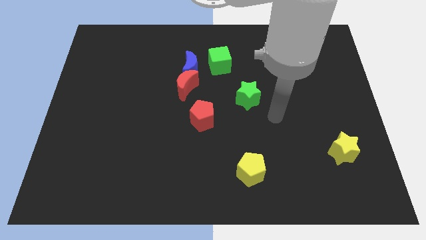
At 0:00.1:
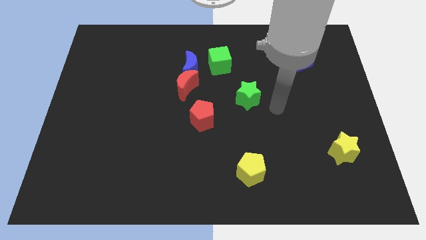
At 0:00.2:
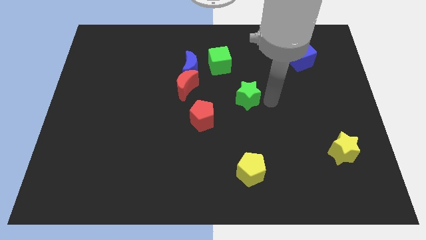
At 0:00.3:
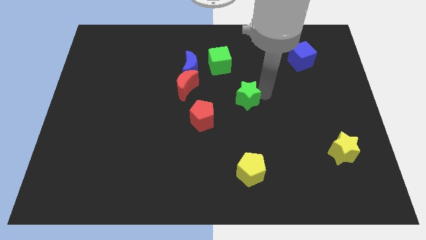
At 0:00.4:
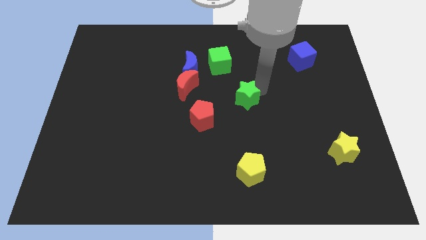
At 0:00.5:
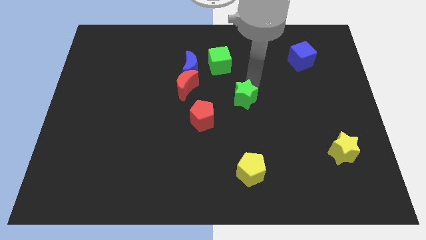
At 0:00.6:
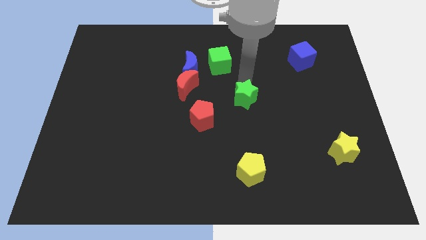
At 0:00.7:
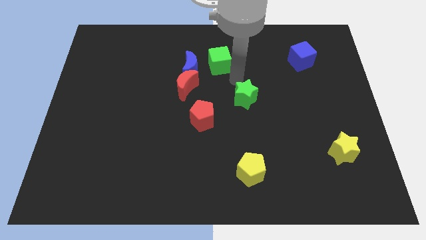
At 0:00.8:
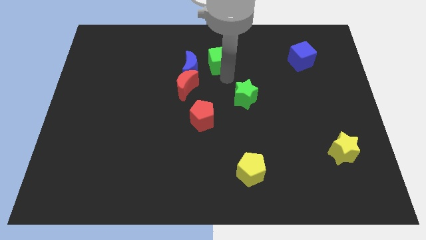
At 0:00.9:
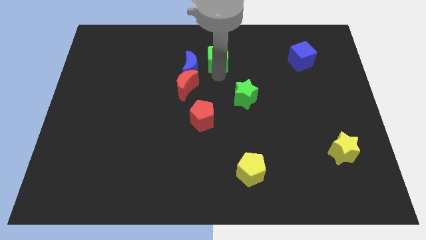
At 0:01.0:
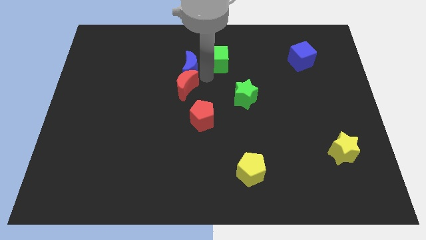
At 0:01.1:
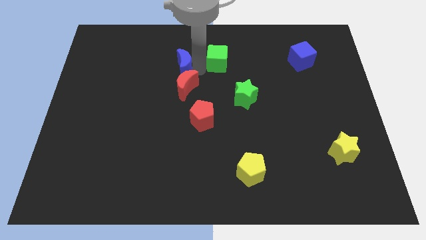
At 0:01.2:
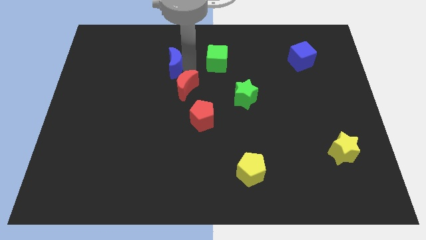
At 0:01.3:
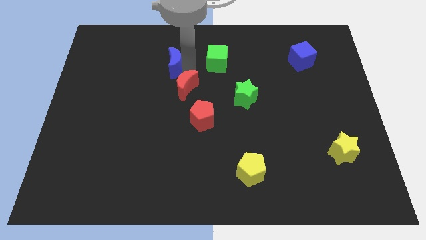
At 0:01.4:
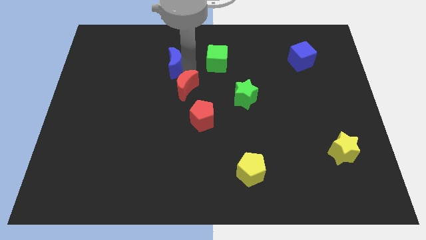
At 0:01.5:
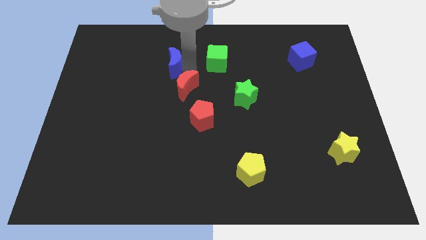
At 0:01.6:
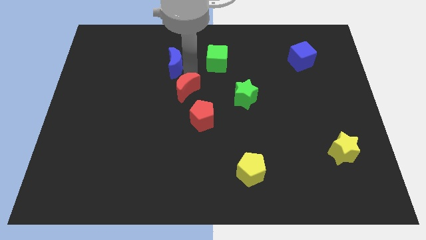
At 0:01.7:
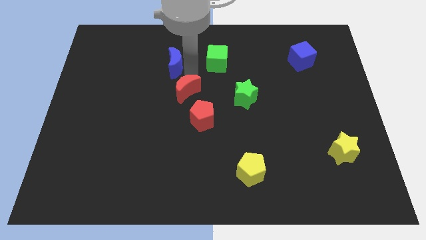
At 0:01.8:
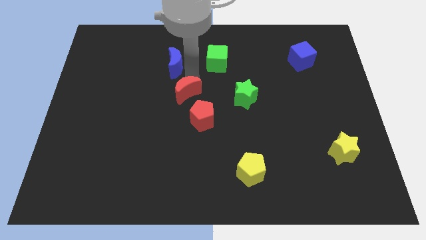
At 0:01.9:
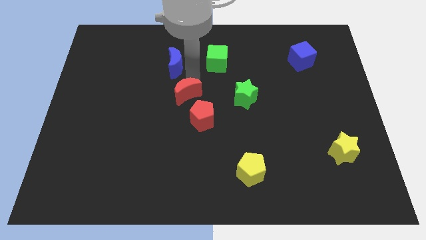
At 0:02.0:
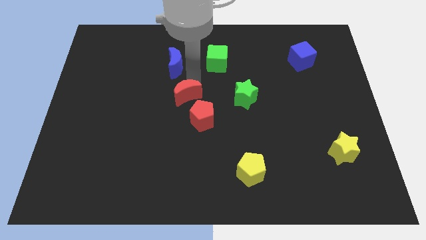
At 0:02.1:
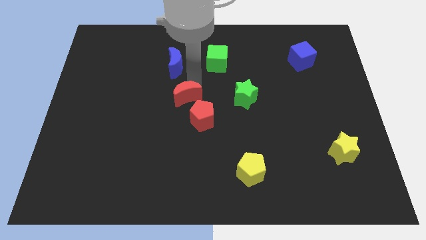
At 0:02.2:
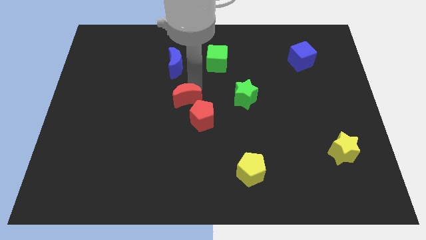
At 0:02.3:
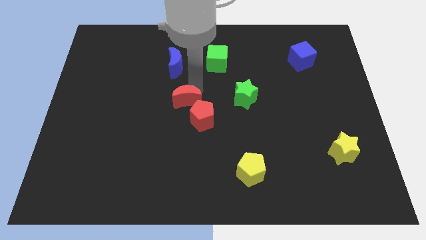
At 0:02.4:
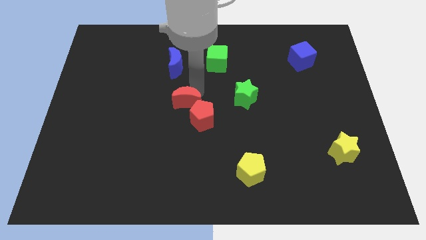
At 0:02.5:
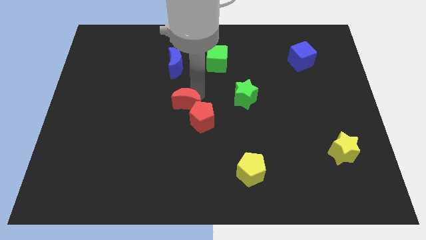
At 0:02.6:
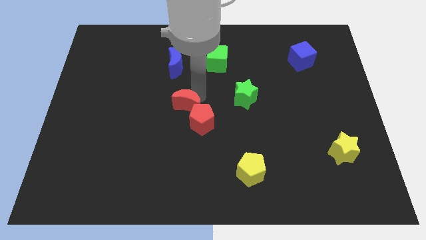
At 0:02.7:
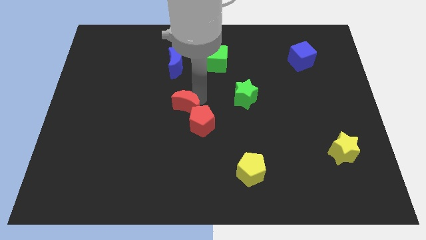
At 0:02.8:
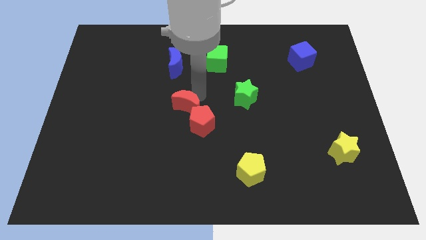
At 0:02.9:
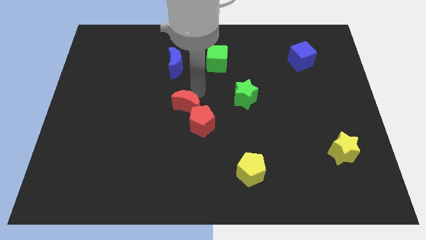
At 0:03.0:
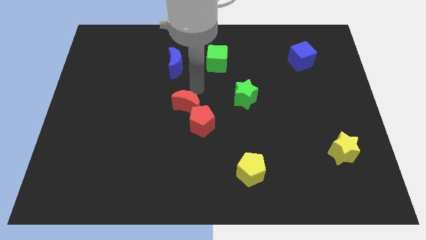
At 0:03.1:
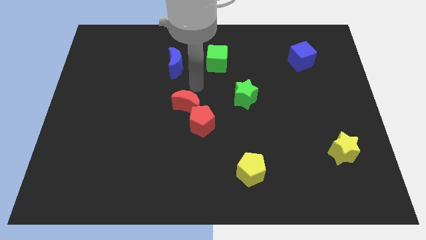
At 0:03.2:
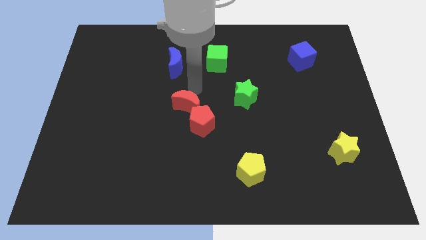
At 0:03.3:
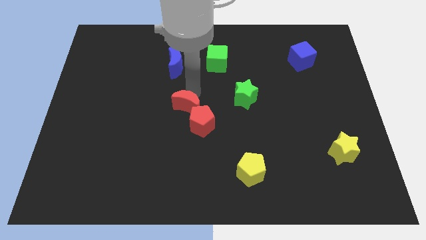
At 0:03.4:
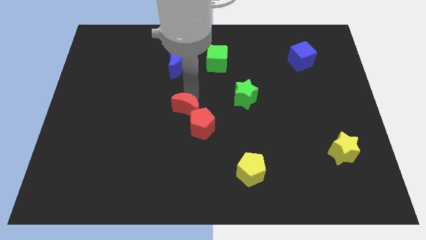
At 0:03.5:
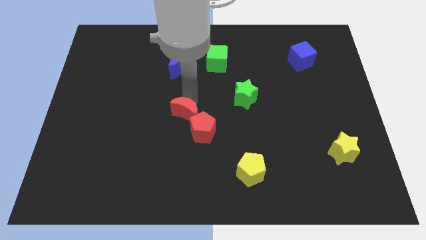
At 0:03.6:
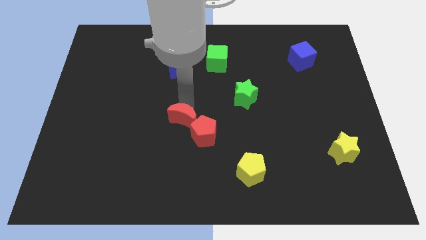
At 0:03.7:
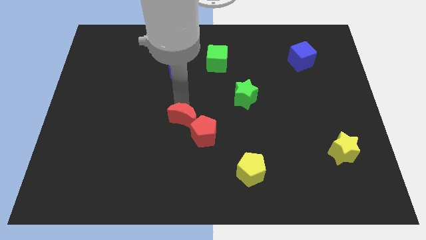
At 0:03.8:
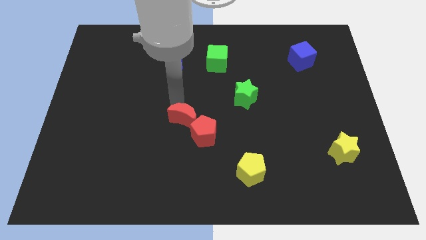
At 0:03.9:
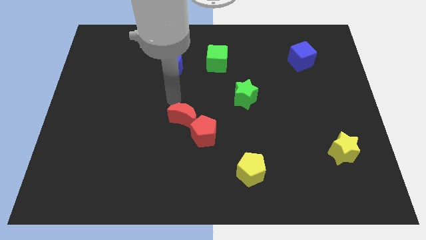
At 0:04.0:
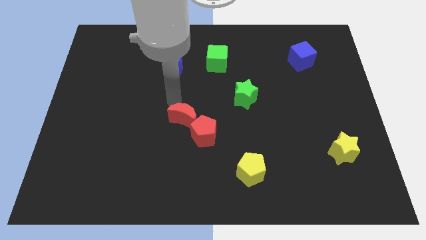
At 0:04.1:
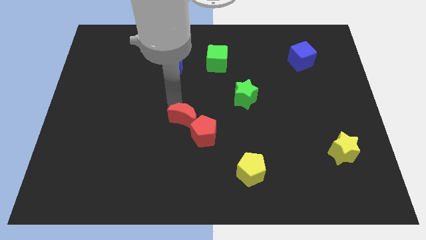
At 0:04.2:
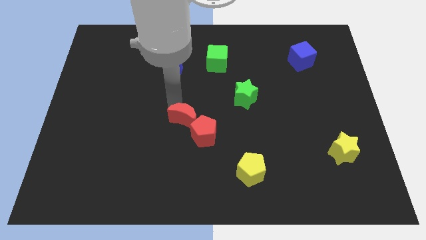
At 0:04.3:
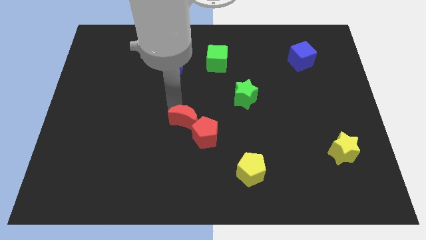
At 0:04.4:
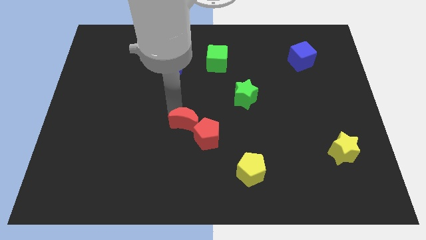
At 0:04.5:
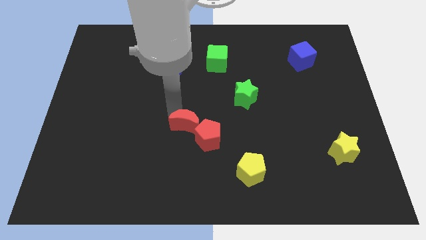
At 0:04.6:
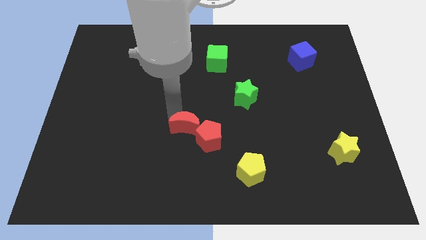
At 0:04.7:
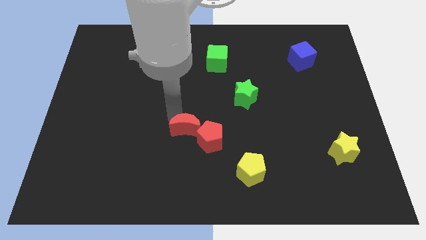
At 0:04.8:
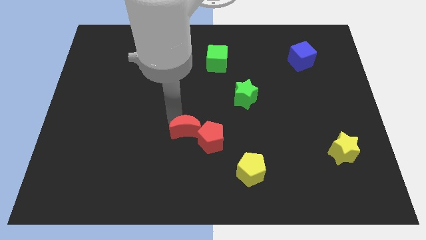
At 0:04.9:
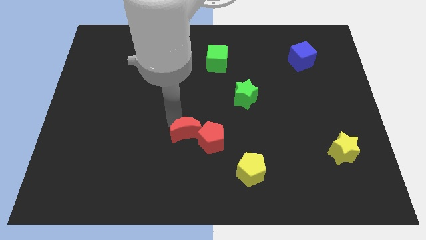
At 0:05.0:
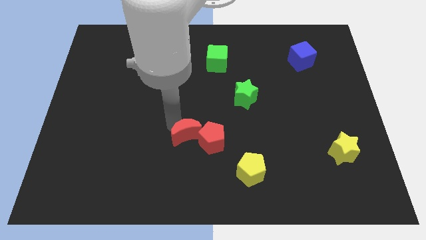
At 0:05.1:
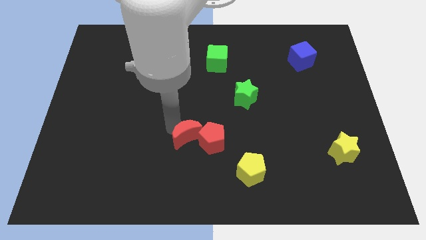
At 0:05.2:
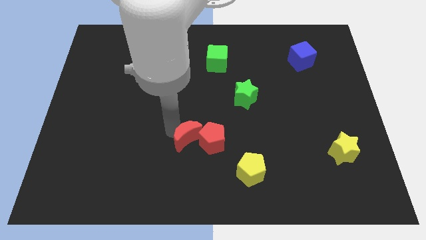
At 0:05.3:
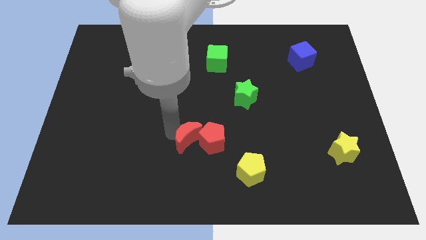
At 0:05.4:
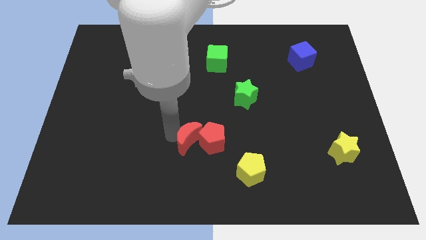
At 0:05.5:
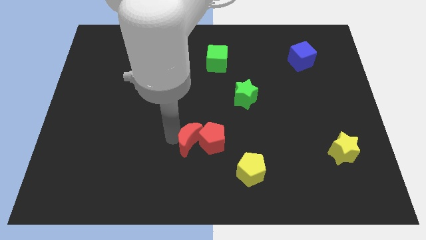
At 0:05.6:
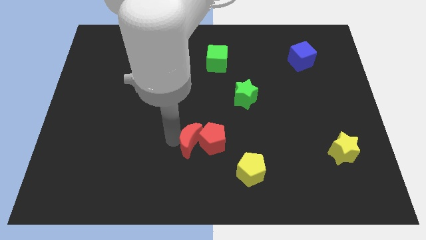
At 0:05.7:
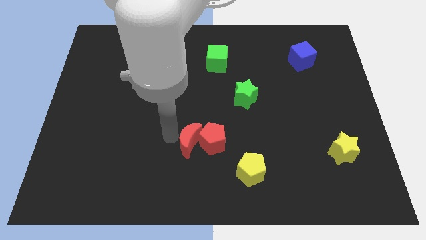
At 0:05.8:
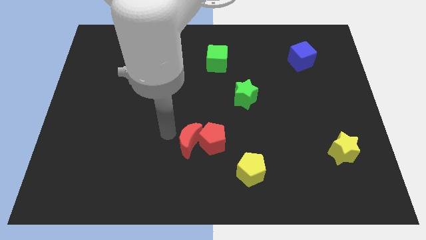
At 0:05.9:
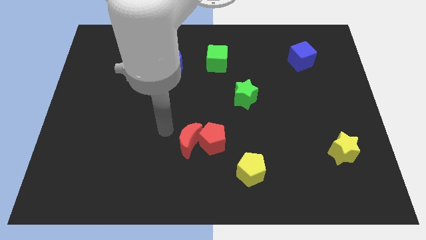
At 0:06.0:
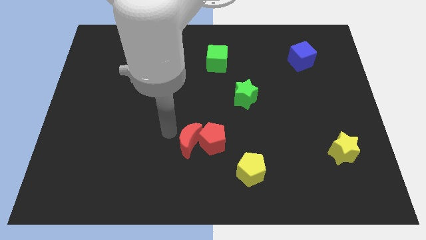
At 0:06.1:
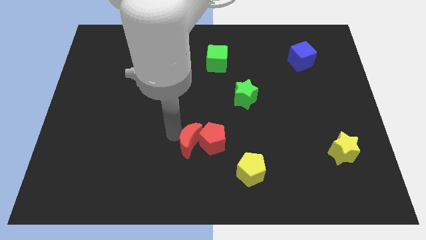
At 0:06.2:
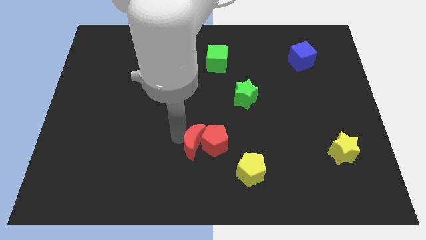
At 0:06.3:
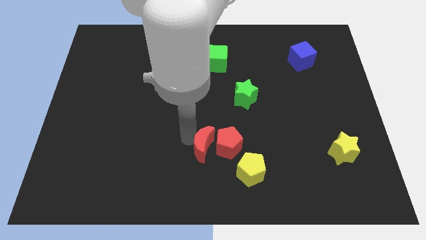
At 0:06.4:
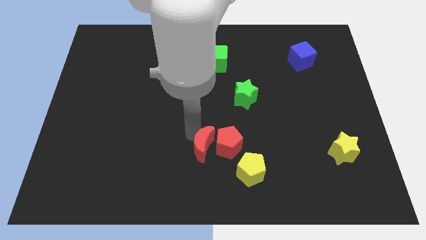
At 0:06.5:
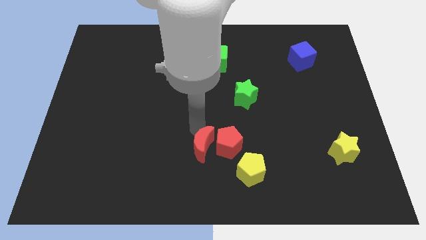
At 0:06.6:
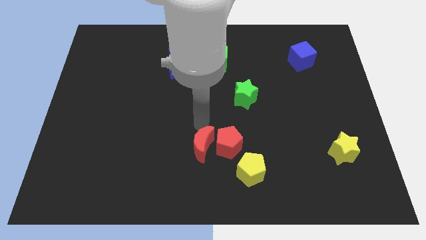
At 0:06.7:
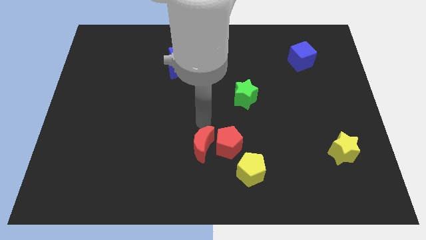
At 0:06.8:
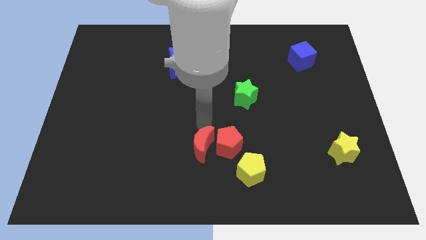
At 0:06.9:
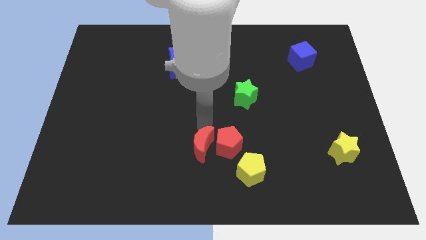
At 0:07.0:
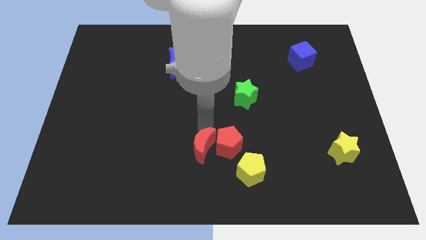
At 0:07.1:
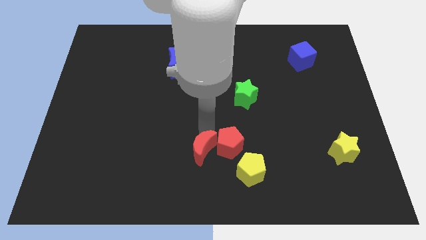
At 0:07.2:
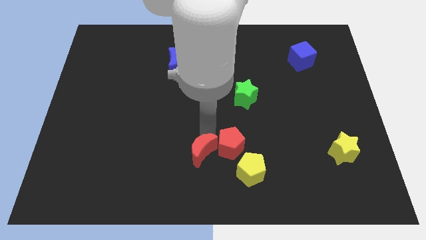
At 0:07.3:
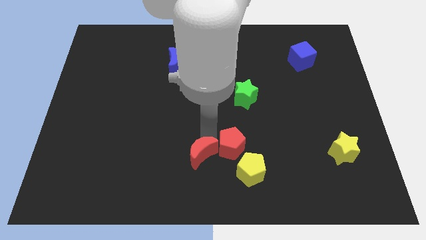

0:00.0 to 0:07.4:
put the red moon to the bottom
